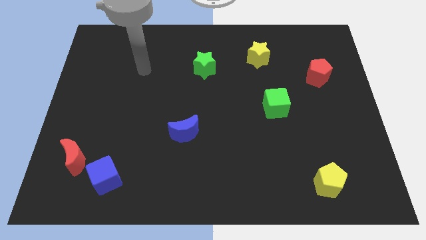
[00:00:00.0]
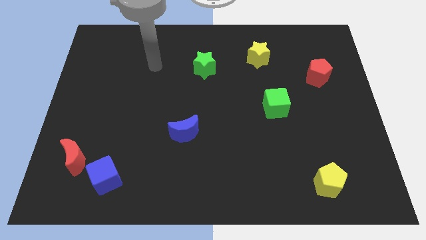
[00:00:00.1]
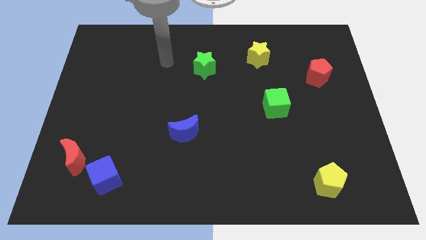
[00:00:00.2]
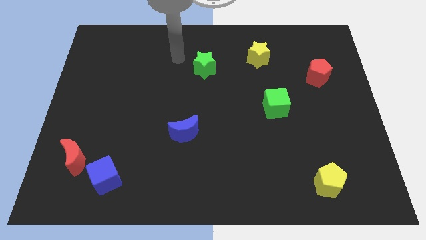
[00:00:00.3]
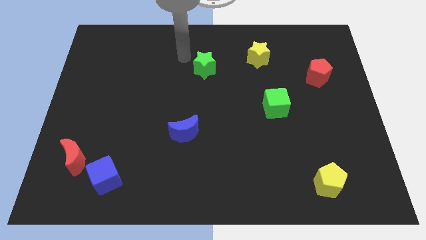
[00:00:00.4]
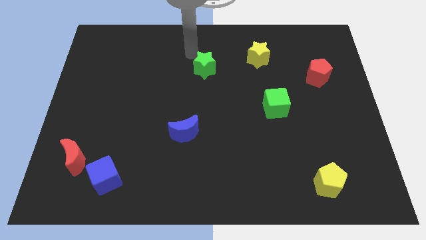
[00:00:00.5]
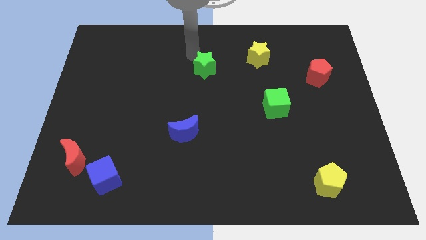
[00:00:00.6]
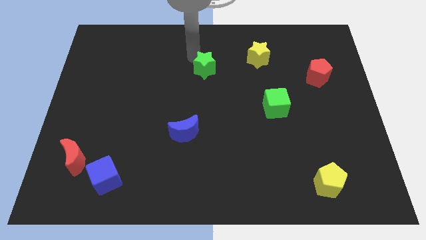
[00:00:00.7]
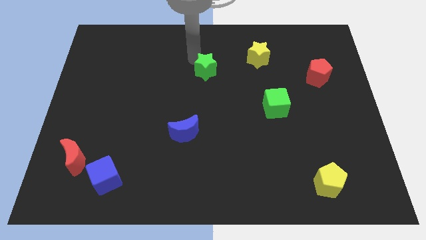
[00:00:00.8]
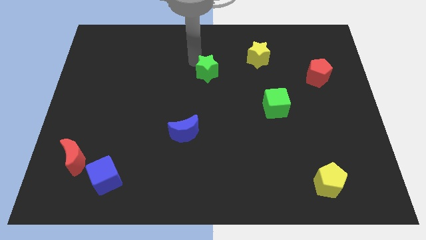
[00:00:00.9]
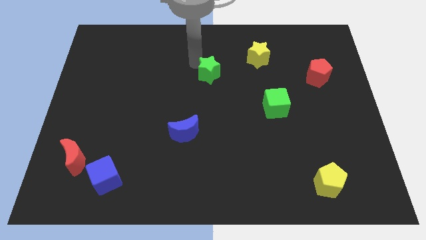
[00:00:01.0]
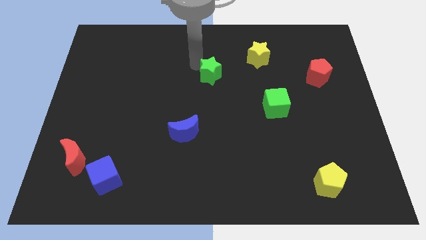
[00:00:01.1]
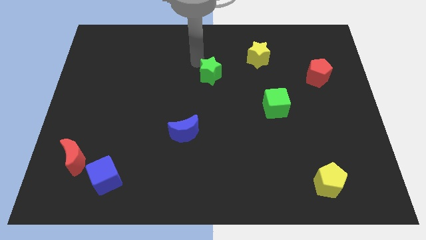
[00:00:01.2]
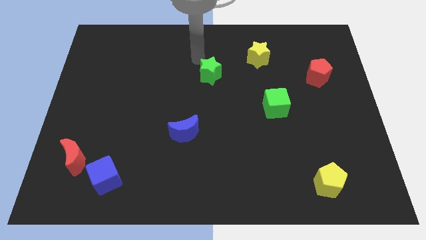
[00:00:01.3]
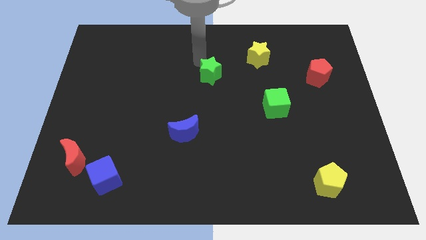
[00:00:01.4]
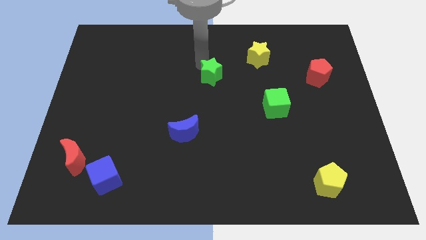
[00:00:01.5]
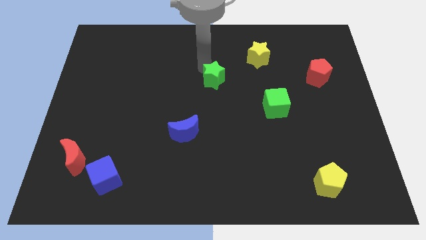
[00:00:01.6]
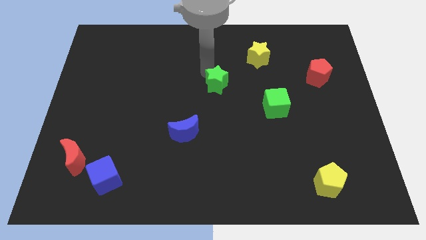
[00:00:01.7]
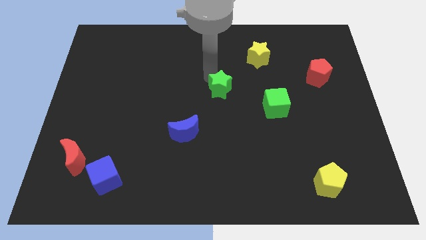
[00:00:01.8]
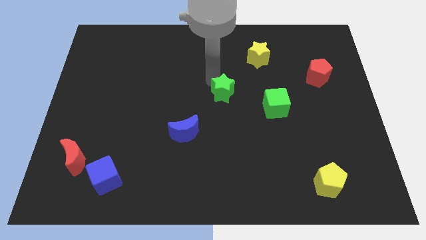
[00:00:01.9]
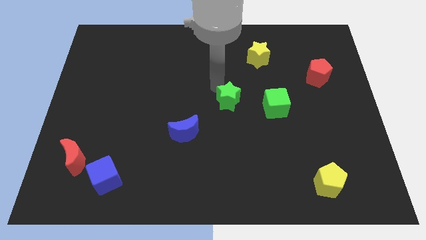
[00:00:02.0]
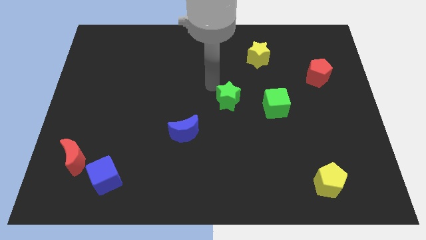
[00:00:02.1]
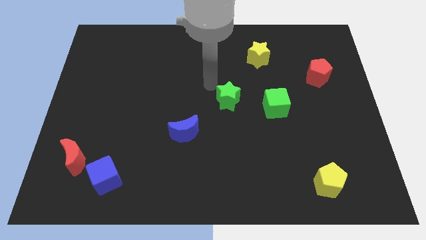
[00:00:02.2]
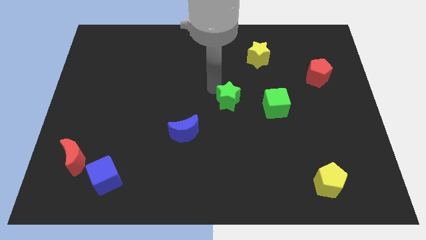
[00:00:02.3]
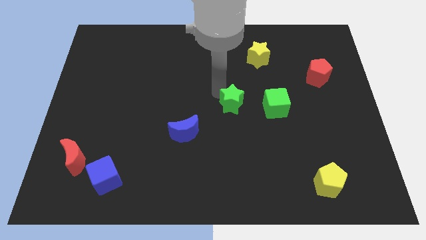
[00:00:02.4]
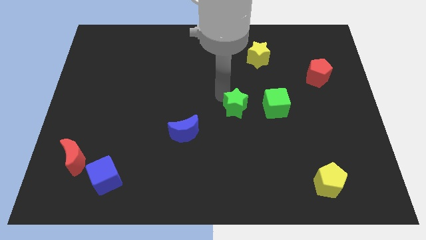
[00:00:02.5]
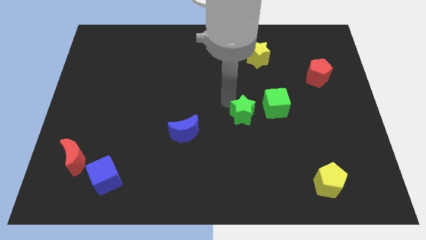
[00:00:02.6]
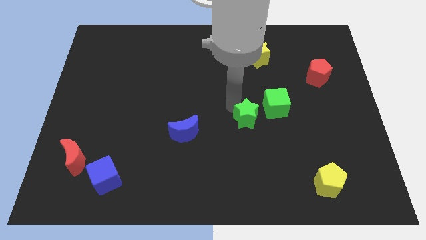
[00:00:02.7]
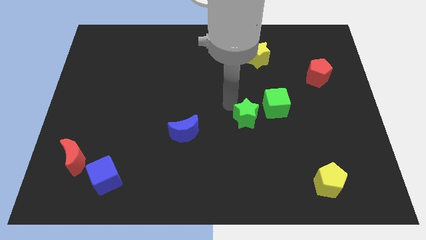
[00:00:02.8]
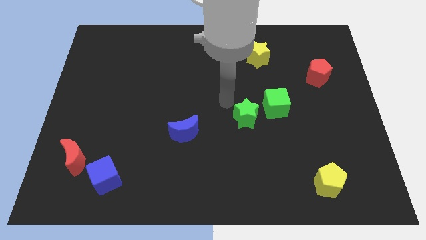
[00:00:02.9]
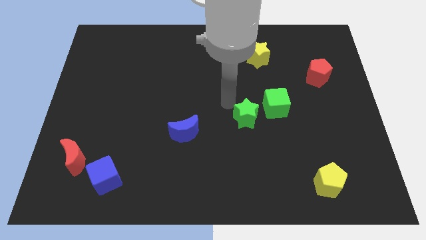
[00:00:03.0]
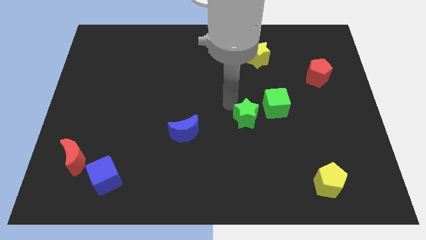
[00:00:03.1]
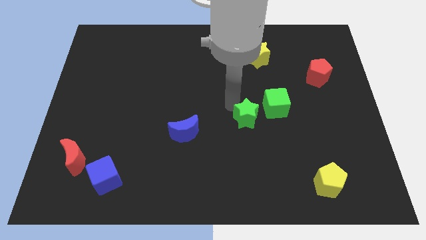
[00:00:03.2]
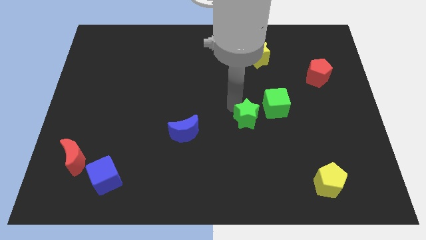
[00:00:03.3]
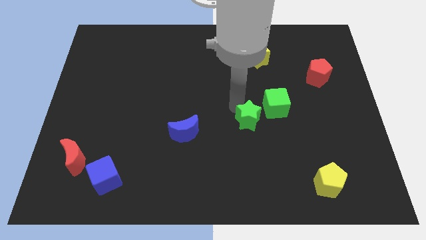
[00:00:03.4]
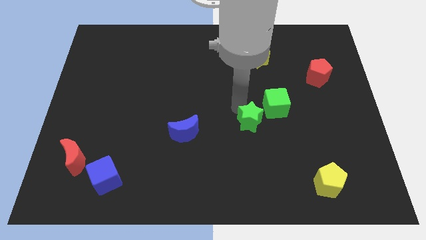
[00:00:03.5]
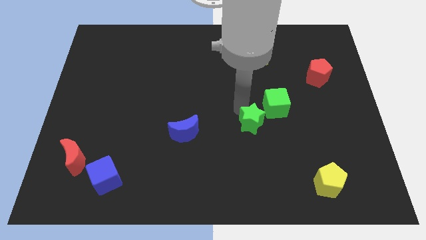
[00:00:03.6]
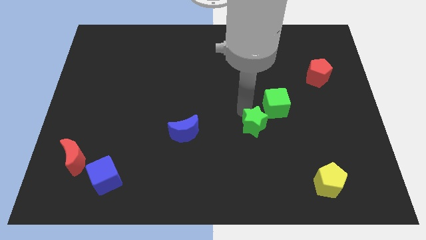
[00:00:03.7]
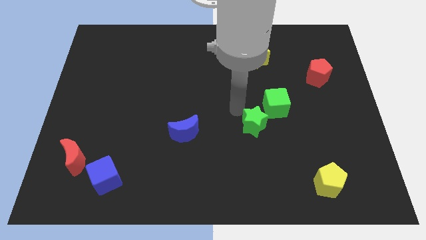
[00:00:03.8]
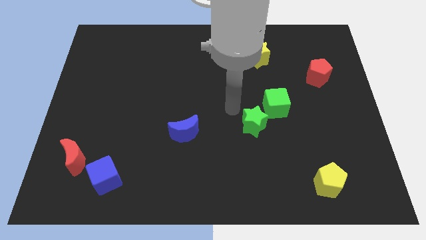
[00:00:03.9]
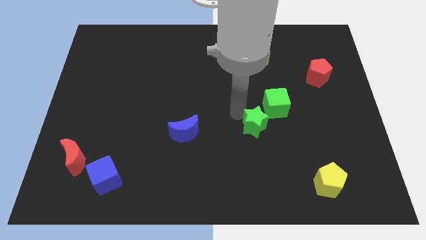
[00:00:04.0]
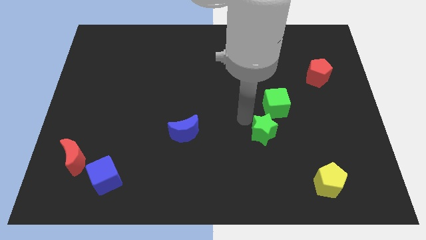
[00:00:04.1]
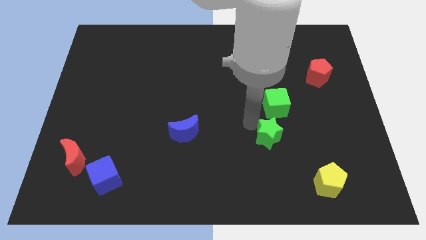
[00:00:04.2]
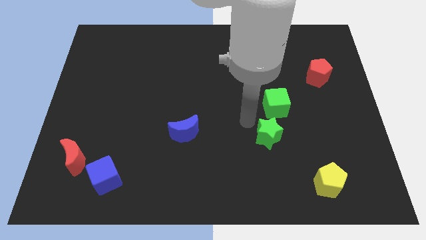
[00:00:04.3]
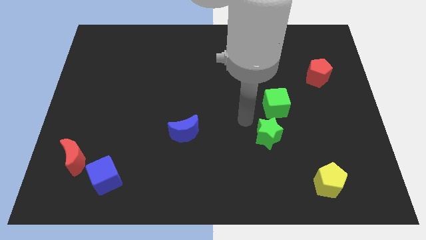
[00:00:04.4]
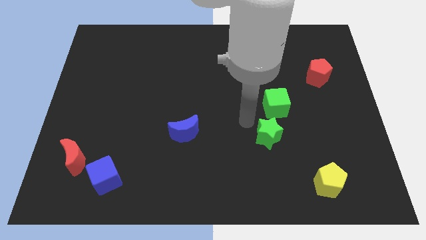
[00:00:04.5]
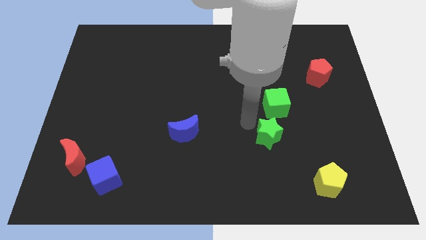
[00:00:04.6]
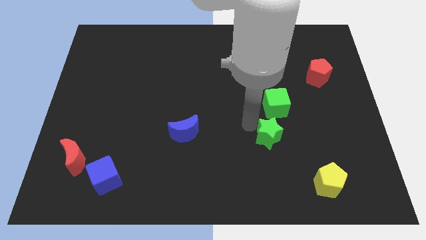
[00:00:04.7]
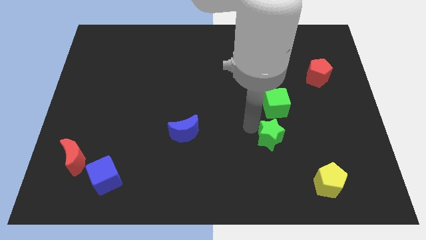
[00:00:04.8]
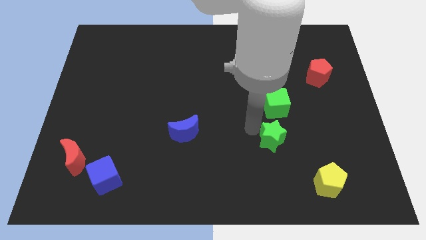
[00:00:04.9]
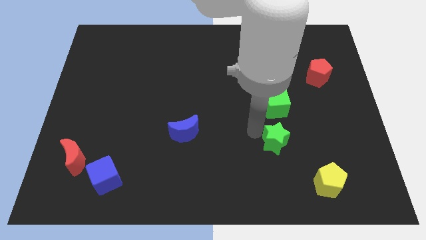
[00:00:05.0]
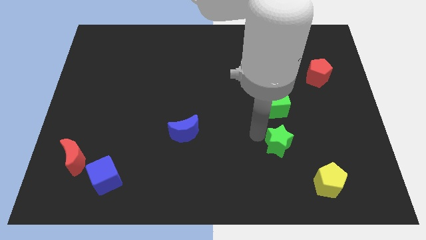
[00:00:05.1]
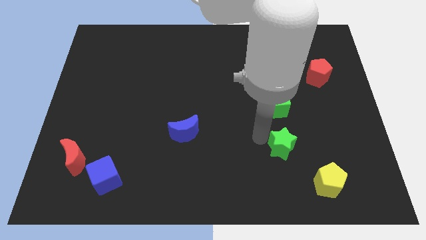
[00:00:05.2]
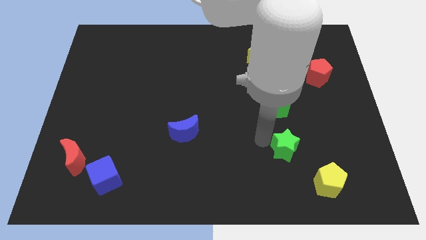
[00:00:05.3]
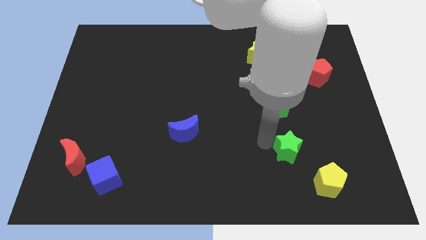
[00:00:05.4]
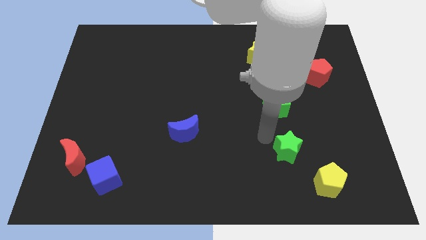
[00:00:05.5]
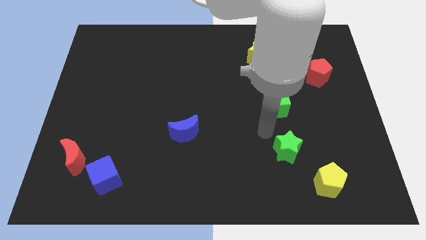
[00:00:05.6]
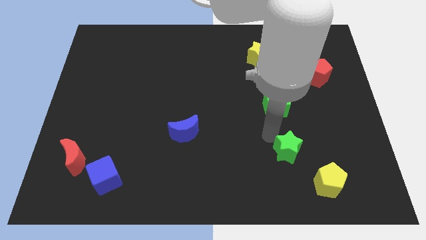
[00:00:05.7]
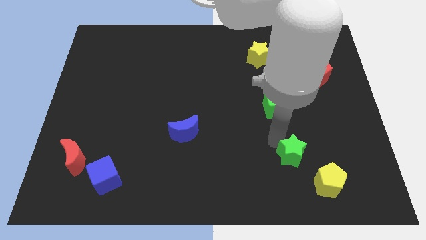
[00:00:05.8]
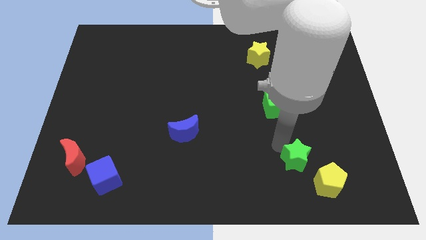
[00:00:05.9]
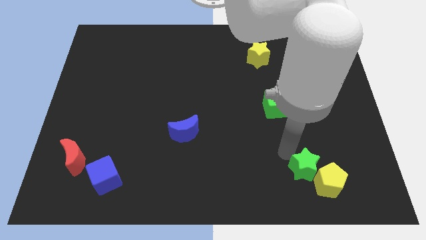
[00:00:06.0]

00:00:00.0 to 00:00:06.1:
put the green star towards the yellow pentagon
